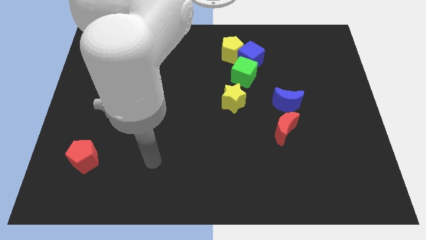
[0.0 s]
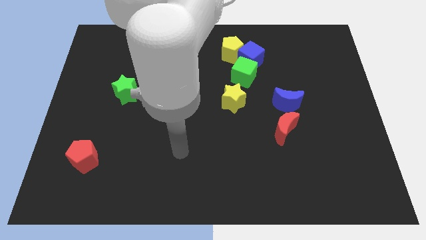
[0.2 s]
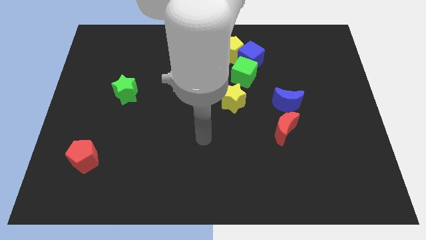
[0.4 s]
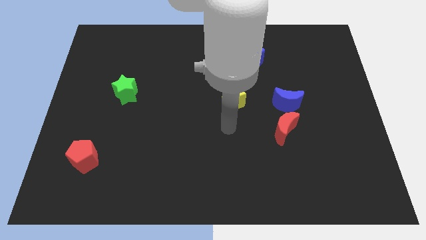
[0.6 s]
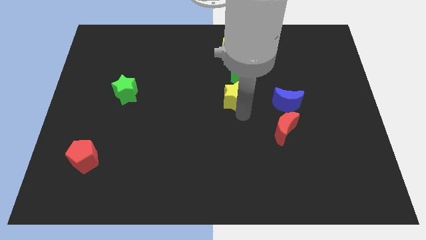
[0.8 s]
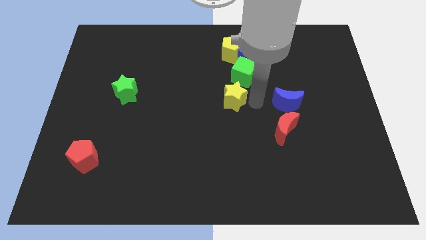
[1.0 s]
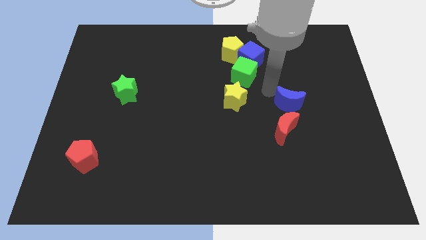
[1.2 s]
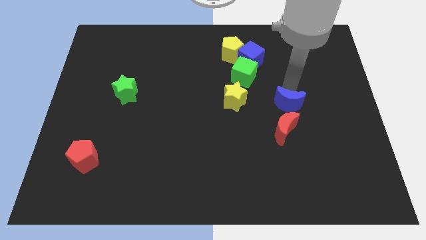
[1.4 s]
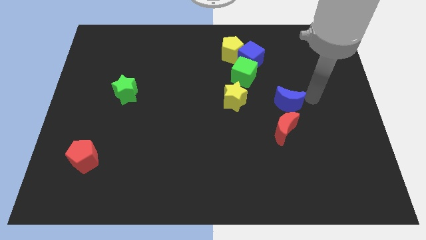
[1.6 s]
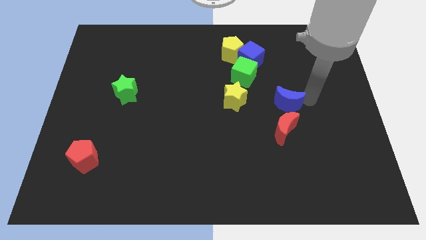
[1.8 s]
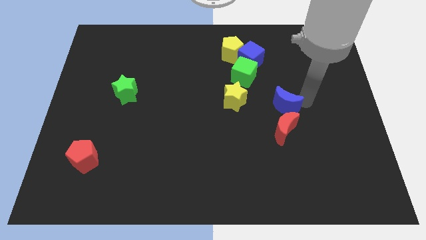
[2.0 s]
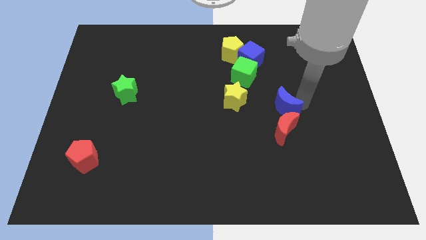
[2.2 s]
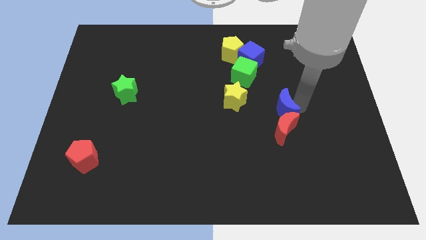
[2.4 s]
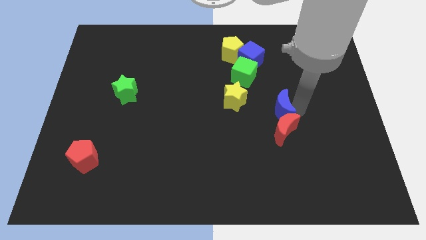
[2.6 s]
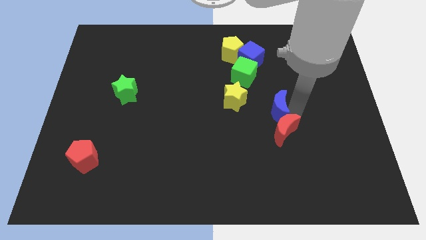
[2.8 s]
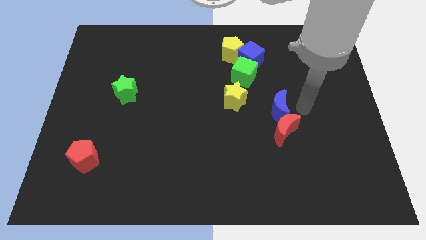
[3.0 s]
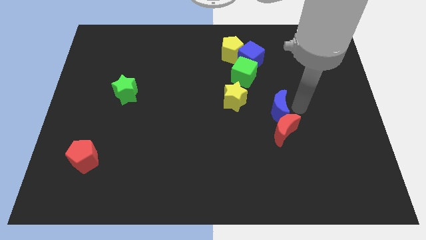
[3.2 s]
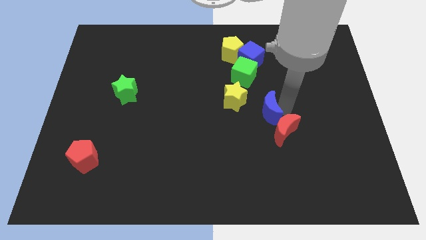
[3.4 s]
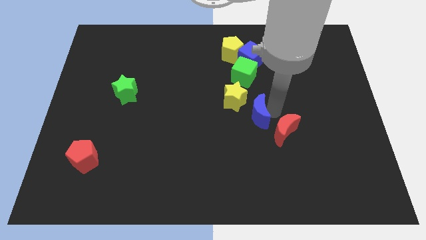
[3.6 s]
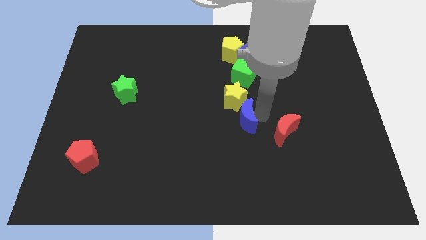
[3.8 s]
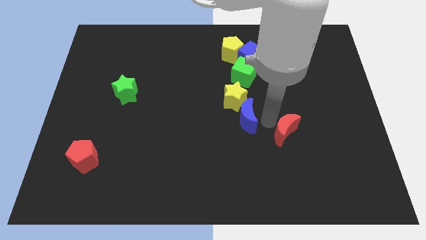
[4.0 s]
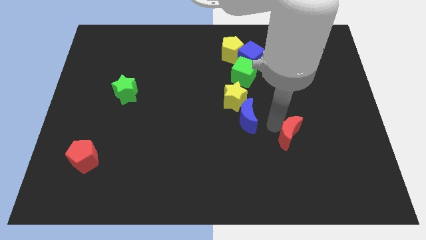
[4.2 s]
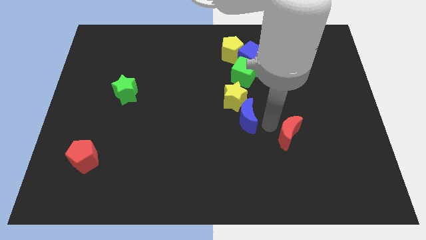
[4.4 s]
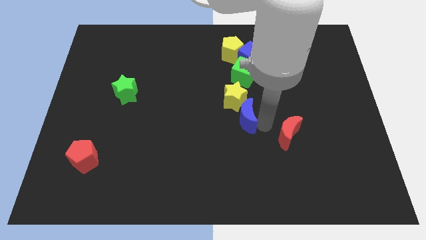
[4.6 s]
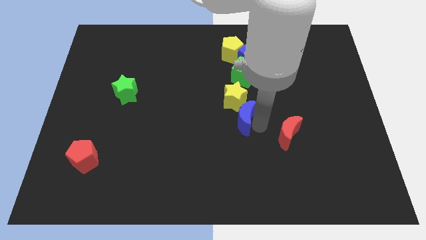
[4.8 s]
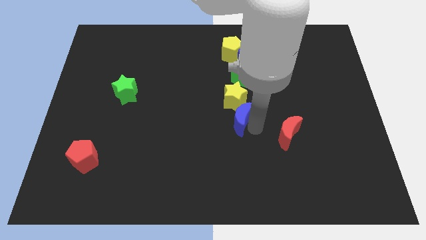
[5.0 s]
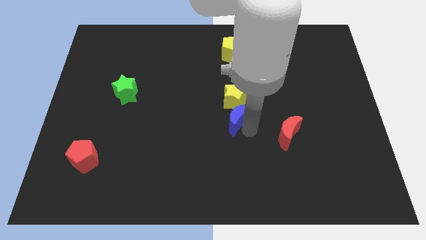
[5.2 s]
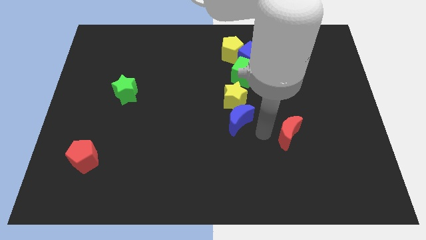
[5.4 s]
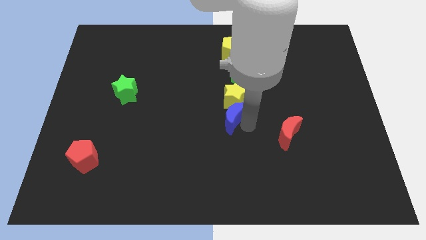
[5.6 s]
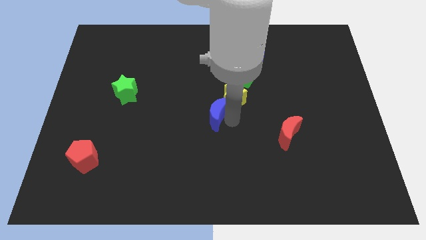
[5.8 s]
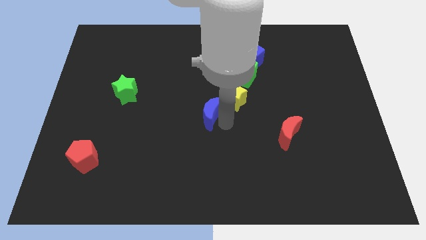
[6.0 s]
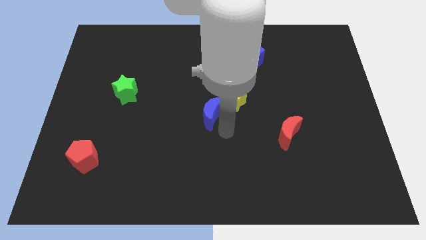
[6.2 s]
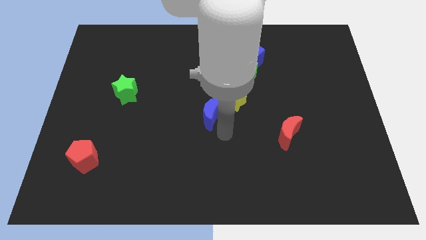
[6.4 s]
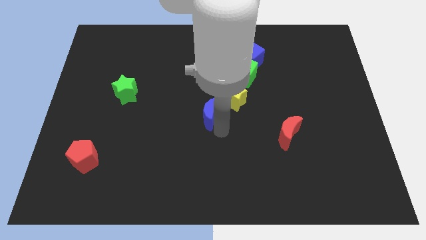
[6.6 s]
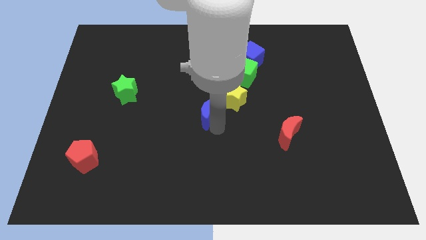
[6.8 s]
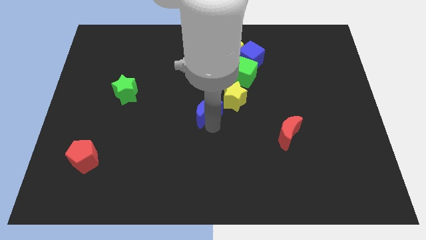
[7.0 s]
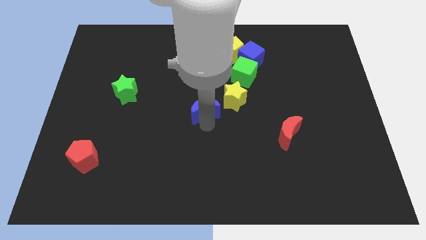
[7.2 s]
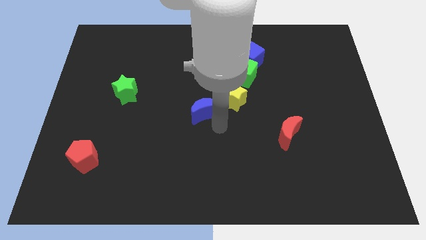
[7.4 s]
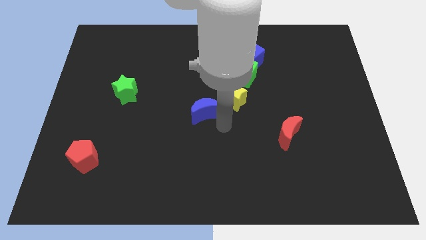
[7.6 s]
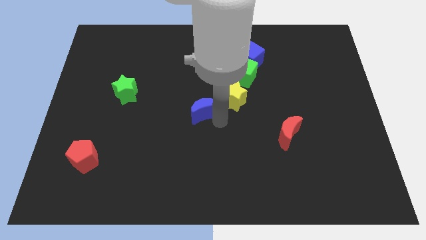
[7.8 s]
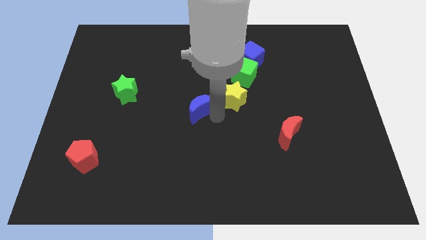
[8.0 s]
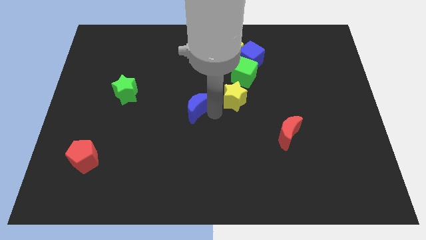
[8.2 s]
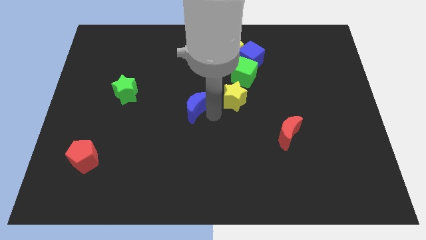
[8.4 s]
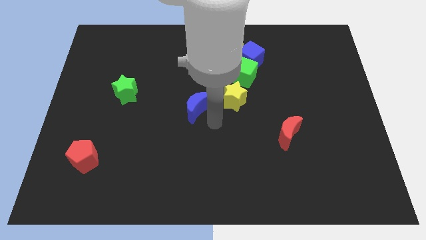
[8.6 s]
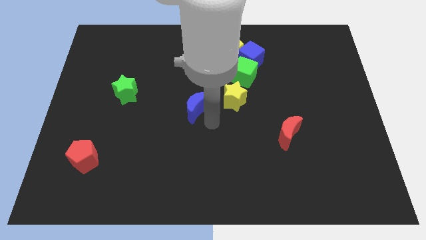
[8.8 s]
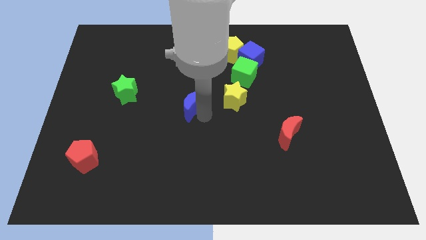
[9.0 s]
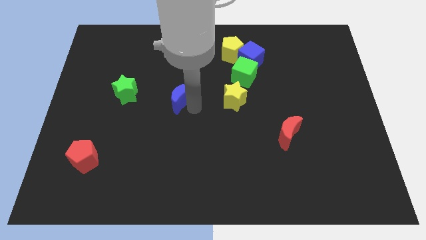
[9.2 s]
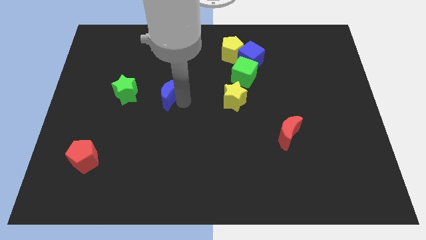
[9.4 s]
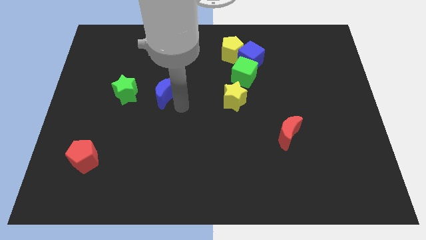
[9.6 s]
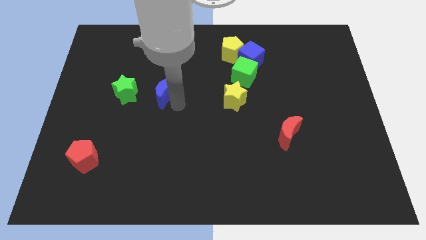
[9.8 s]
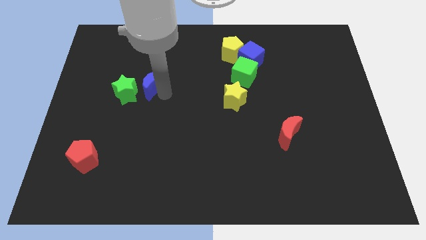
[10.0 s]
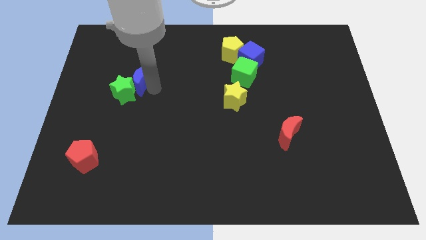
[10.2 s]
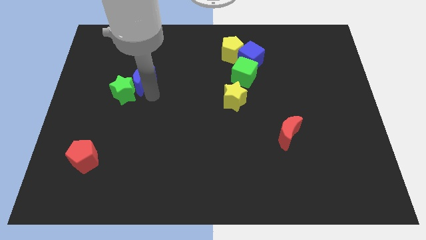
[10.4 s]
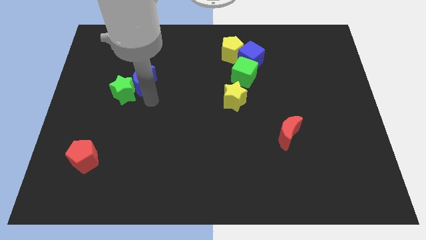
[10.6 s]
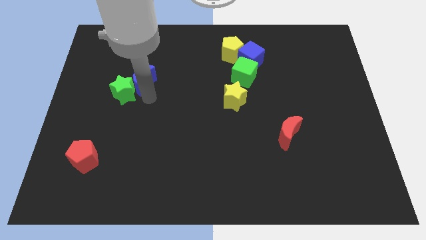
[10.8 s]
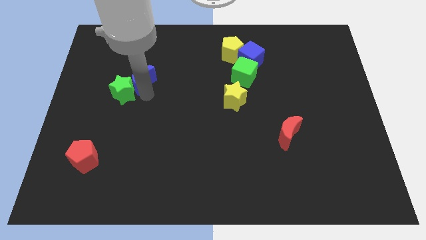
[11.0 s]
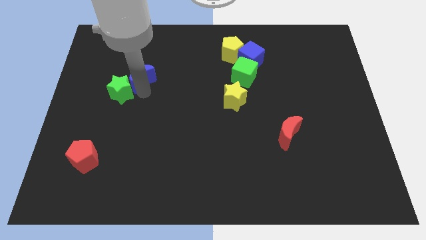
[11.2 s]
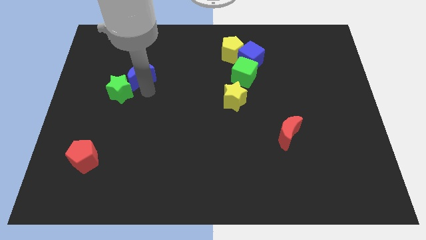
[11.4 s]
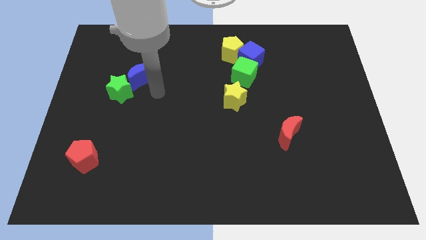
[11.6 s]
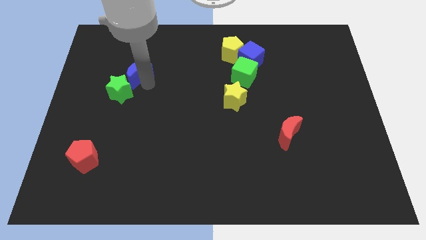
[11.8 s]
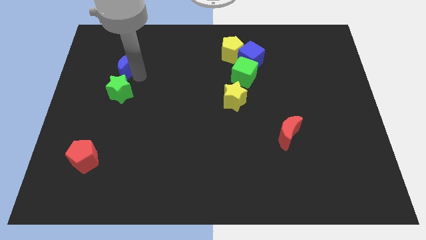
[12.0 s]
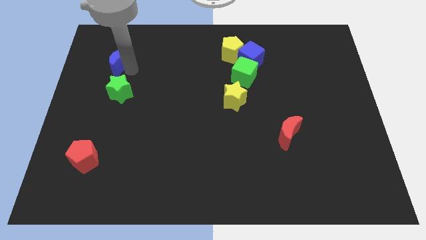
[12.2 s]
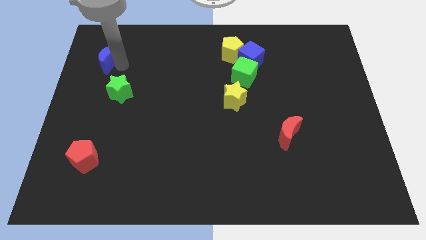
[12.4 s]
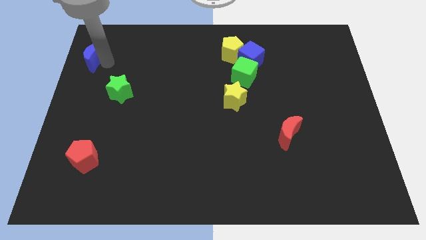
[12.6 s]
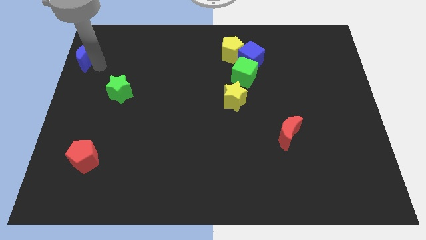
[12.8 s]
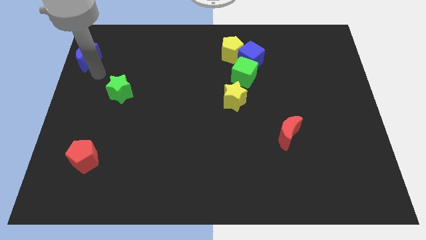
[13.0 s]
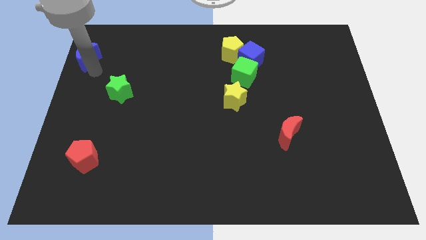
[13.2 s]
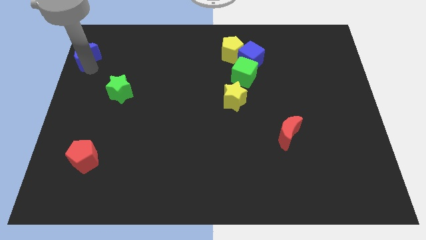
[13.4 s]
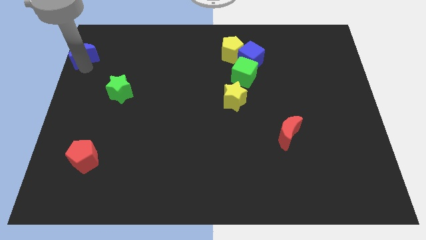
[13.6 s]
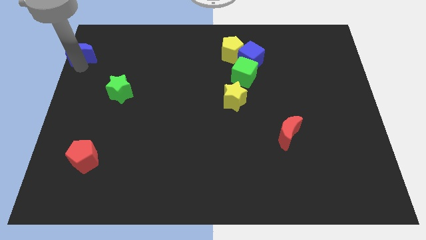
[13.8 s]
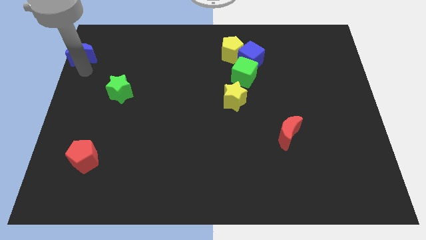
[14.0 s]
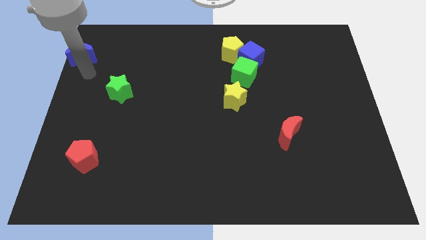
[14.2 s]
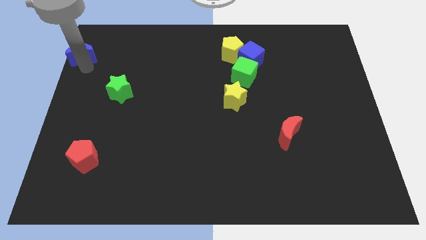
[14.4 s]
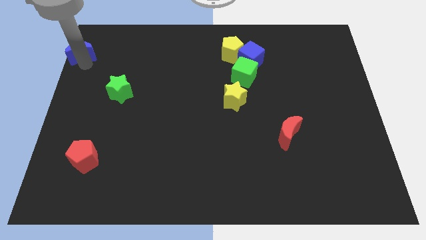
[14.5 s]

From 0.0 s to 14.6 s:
move the blue moon to the top left corner
